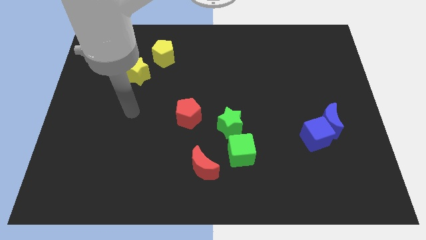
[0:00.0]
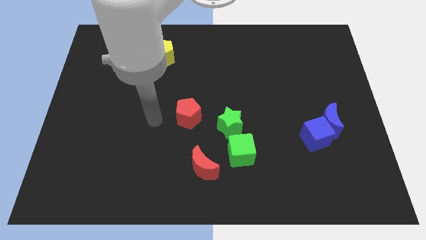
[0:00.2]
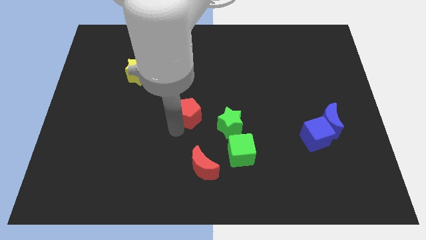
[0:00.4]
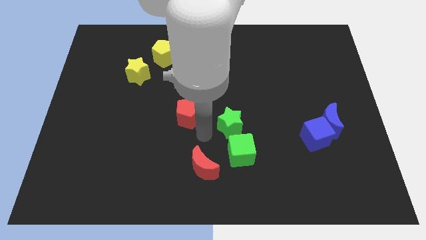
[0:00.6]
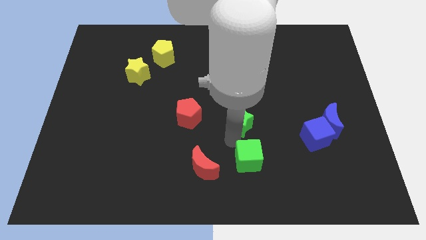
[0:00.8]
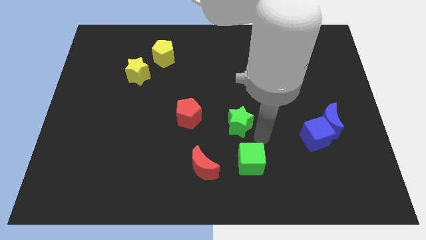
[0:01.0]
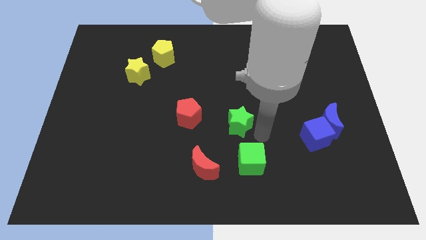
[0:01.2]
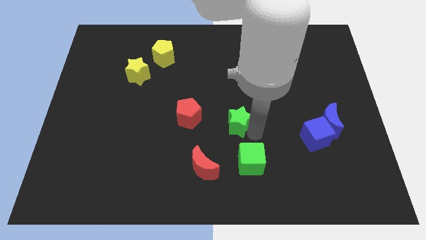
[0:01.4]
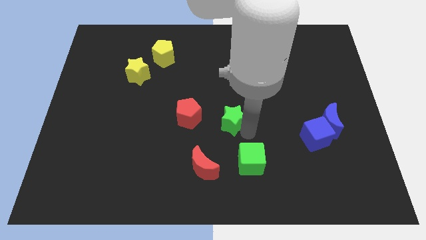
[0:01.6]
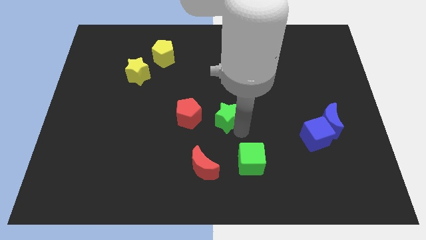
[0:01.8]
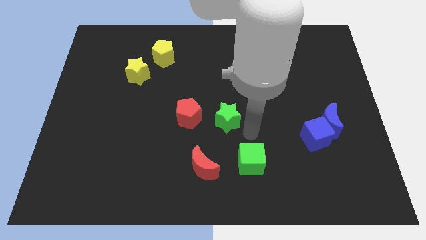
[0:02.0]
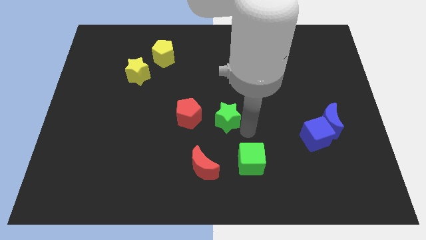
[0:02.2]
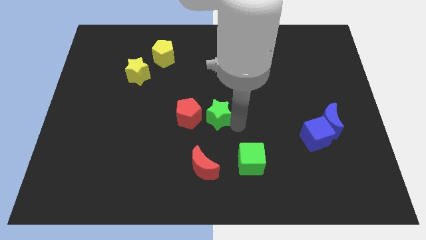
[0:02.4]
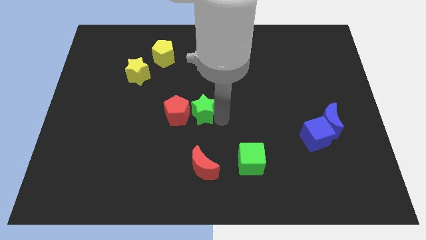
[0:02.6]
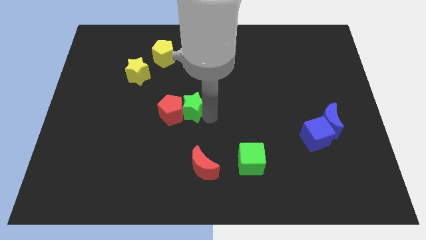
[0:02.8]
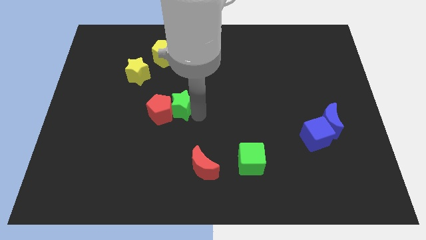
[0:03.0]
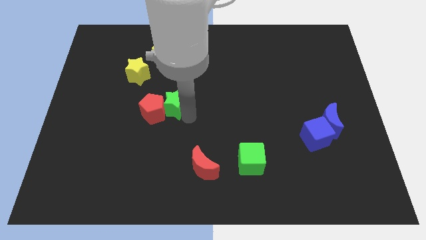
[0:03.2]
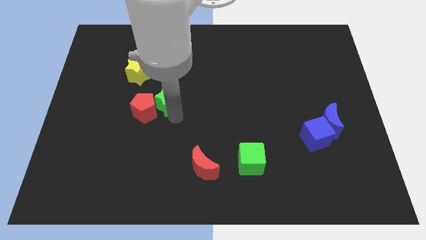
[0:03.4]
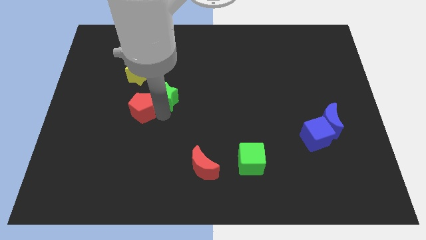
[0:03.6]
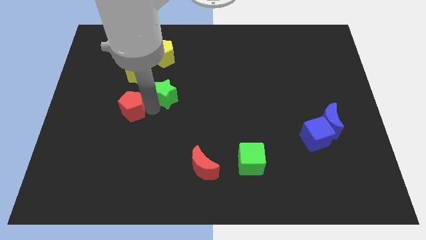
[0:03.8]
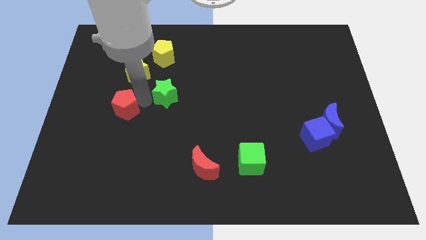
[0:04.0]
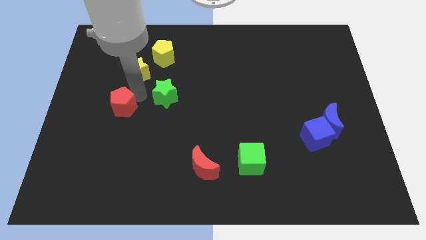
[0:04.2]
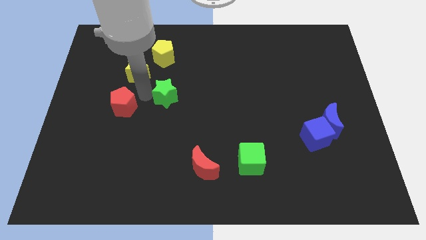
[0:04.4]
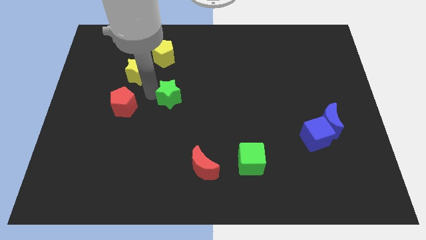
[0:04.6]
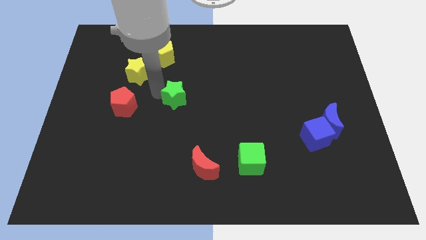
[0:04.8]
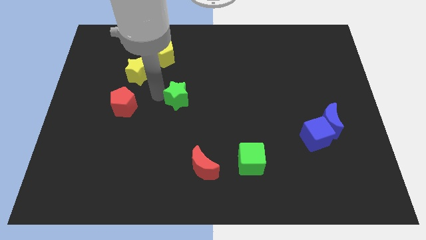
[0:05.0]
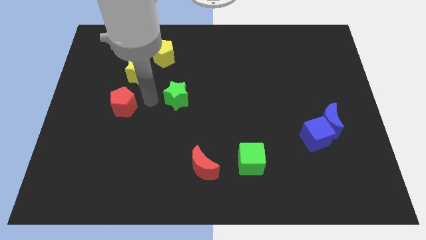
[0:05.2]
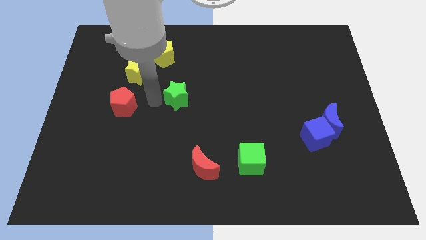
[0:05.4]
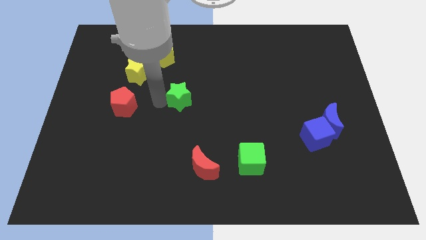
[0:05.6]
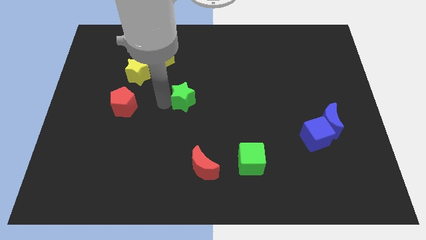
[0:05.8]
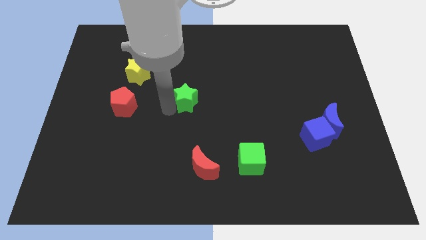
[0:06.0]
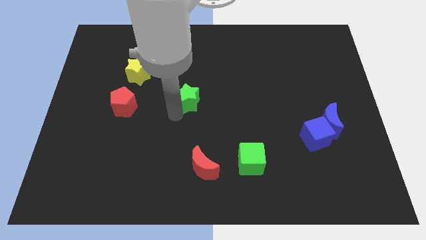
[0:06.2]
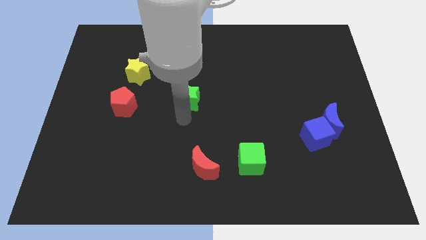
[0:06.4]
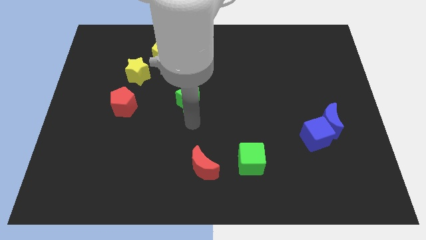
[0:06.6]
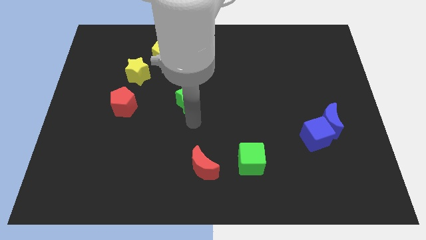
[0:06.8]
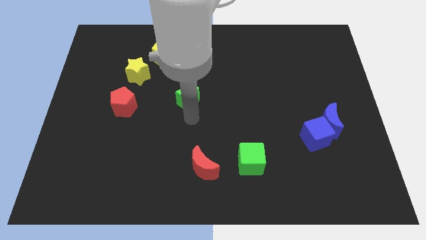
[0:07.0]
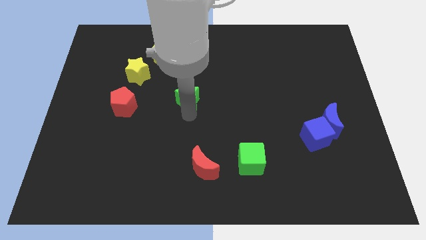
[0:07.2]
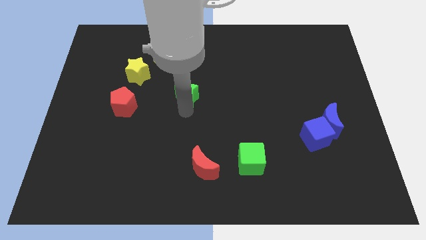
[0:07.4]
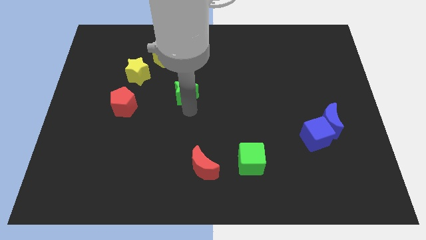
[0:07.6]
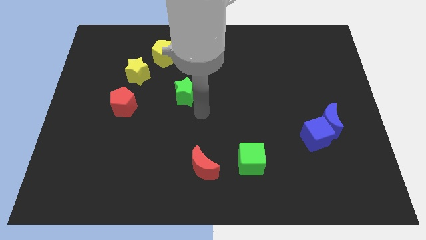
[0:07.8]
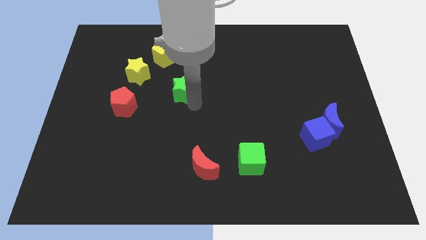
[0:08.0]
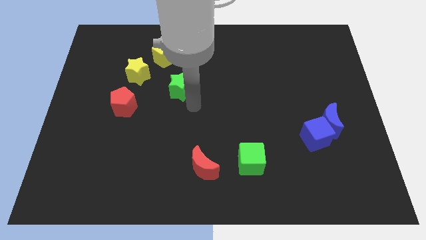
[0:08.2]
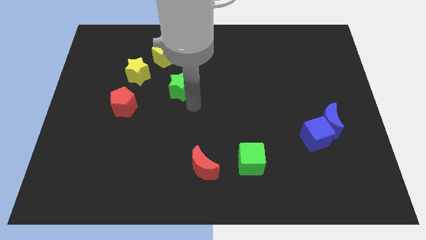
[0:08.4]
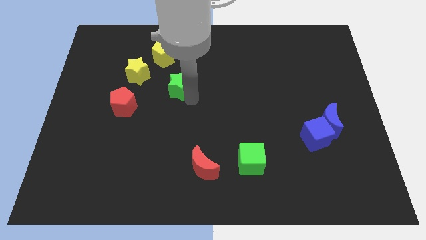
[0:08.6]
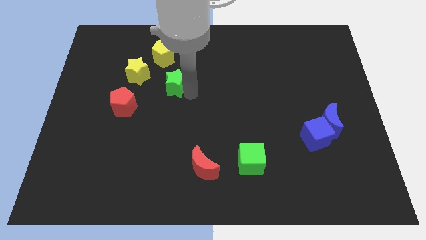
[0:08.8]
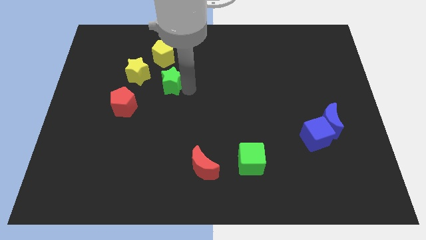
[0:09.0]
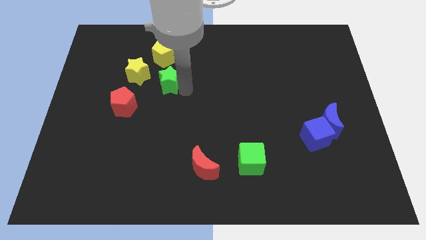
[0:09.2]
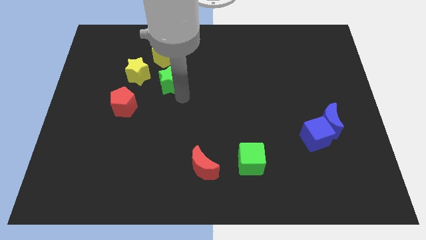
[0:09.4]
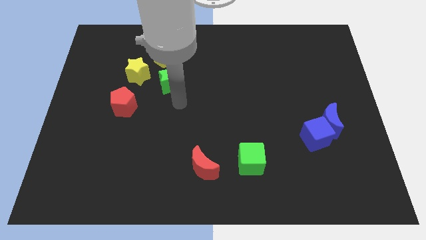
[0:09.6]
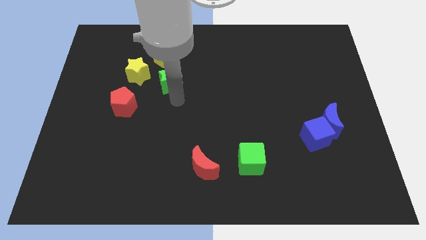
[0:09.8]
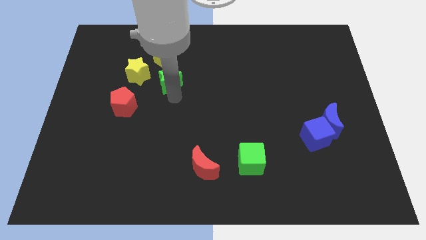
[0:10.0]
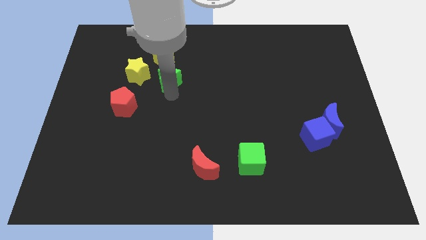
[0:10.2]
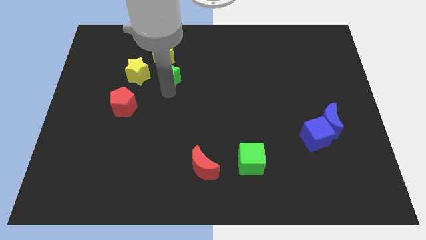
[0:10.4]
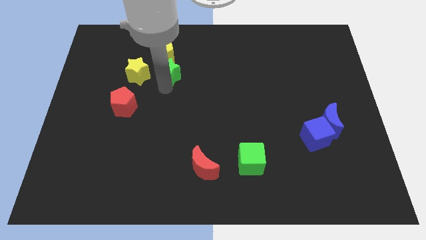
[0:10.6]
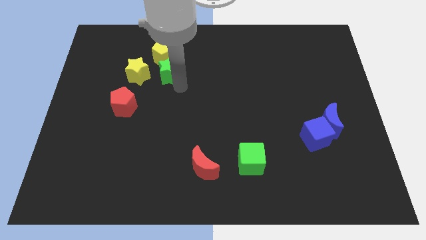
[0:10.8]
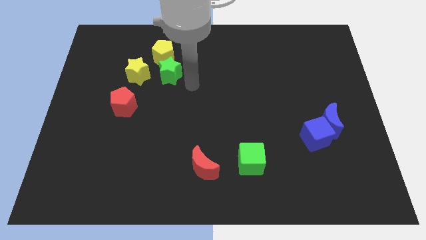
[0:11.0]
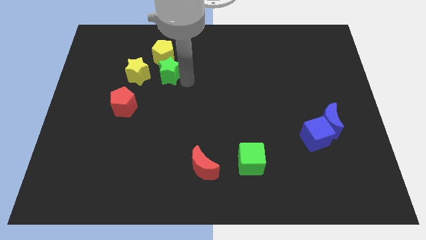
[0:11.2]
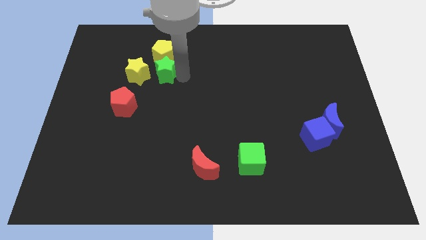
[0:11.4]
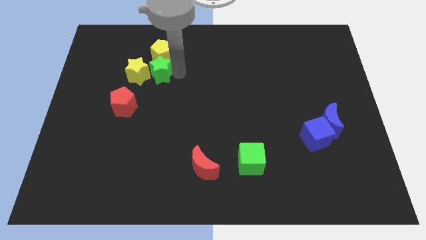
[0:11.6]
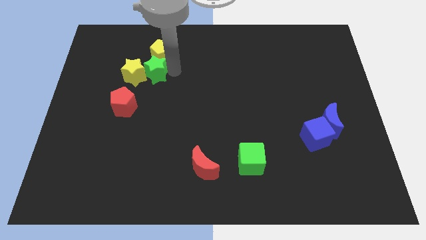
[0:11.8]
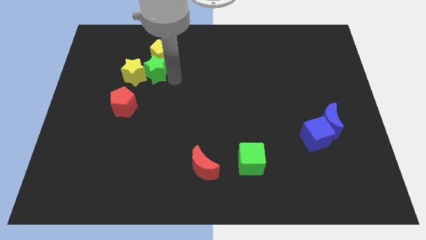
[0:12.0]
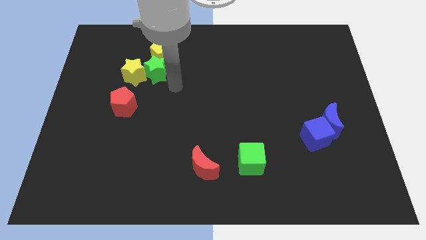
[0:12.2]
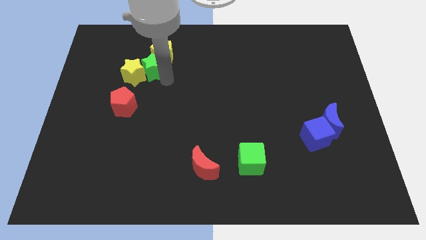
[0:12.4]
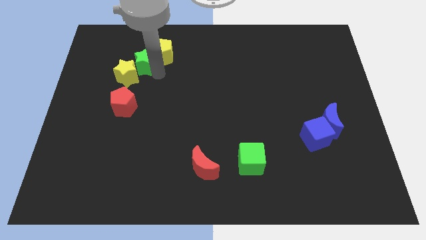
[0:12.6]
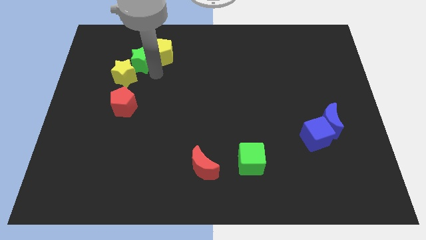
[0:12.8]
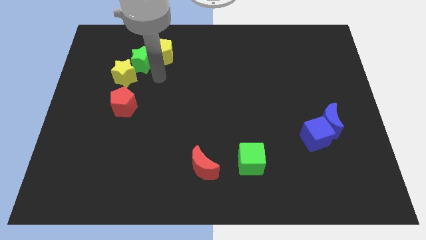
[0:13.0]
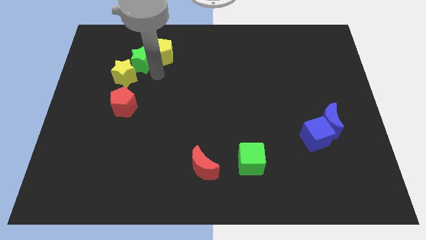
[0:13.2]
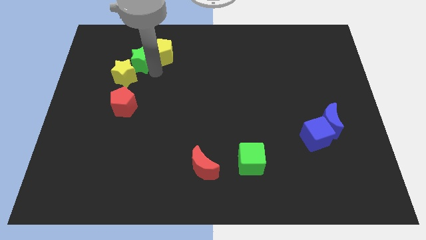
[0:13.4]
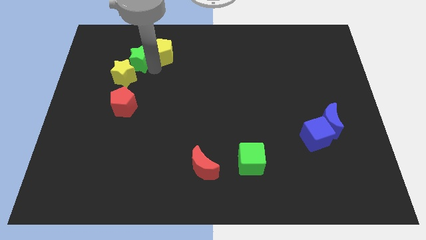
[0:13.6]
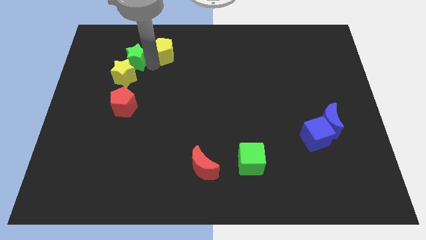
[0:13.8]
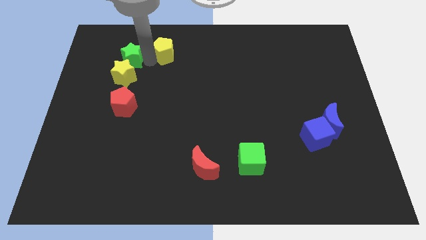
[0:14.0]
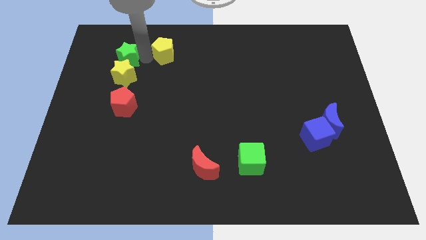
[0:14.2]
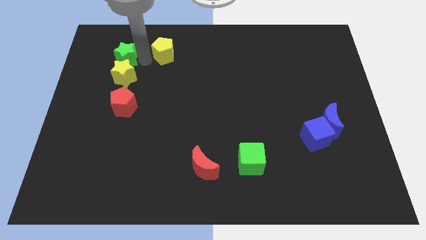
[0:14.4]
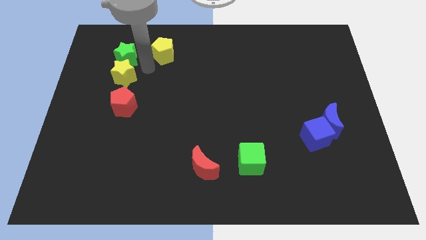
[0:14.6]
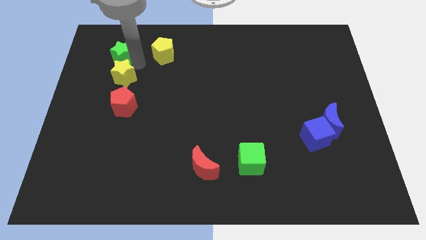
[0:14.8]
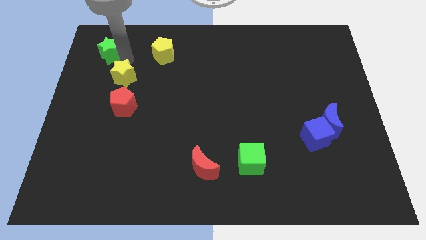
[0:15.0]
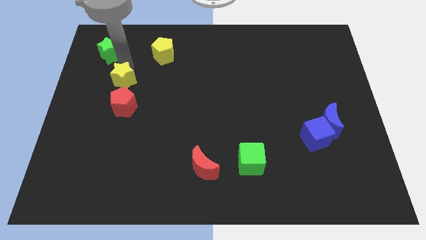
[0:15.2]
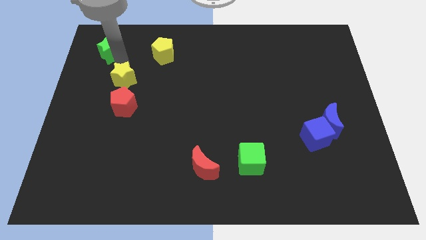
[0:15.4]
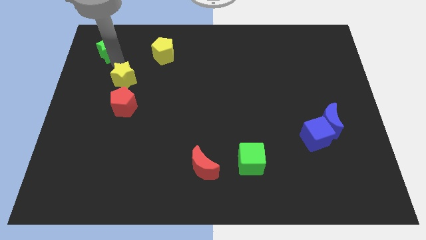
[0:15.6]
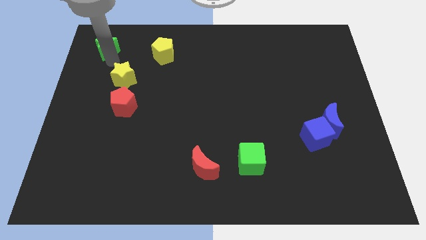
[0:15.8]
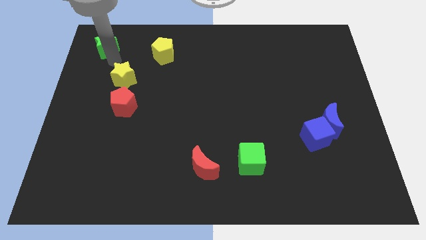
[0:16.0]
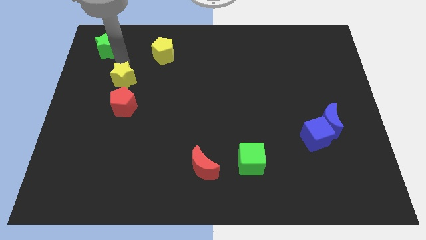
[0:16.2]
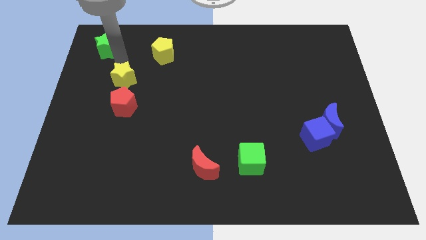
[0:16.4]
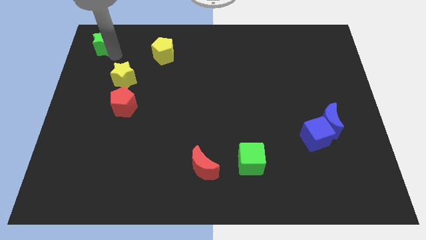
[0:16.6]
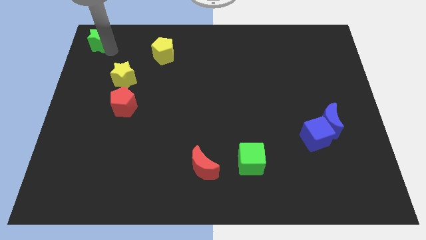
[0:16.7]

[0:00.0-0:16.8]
move the green star to the top left of the board
